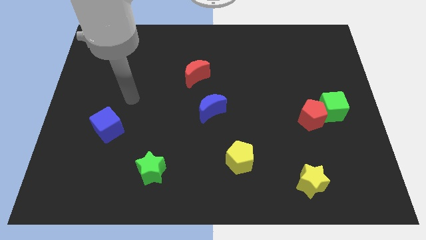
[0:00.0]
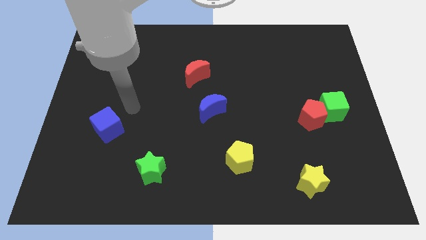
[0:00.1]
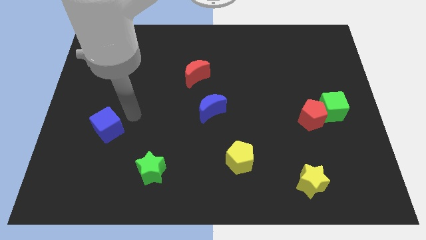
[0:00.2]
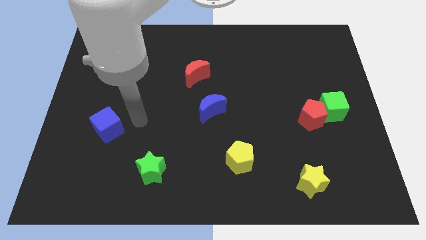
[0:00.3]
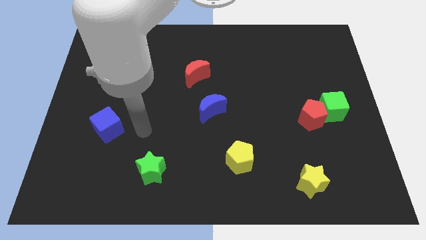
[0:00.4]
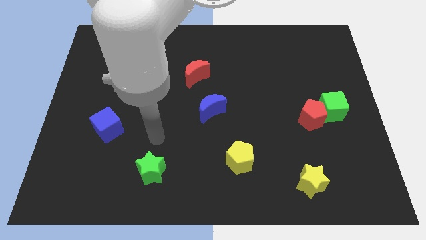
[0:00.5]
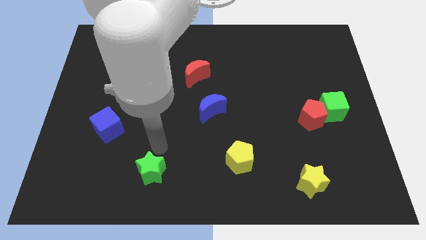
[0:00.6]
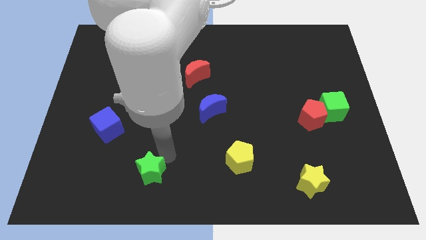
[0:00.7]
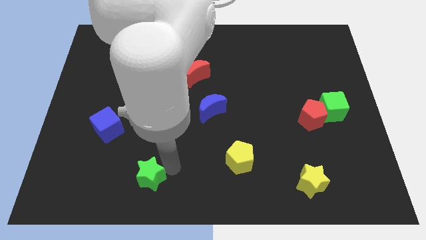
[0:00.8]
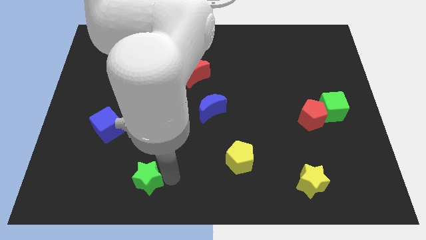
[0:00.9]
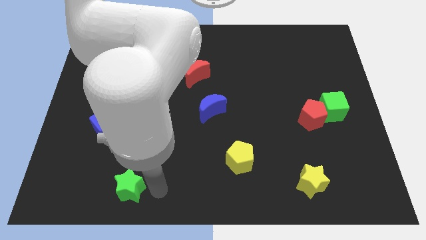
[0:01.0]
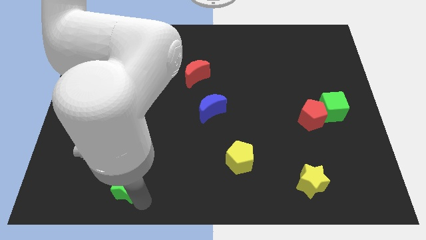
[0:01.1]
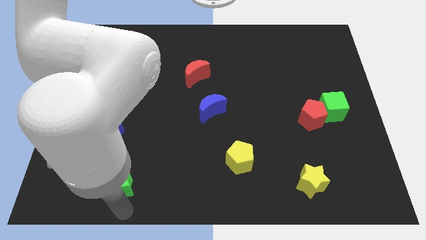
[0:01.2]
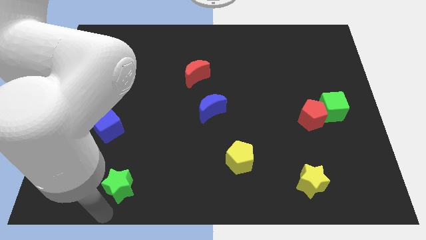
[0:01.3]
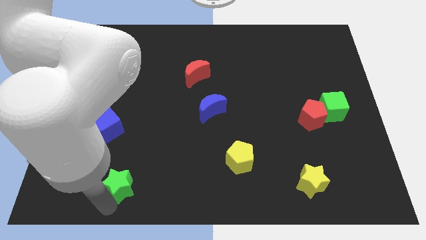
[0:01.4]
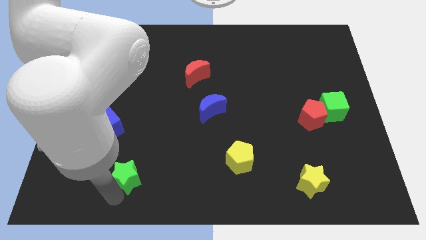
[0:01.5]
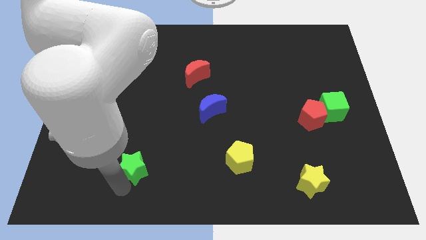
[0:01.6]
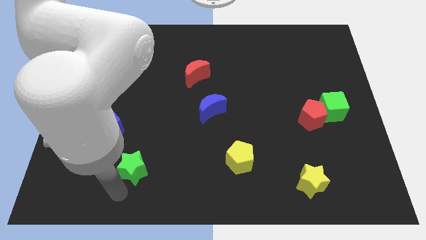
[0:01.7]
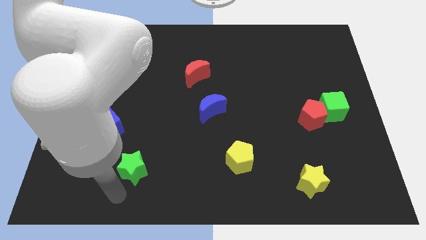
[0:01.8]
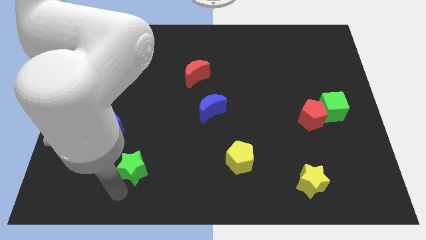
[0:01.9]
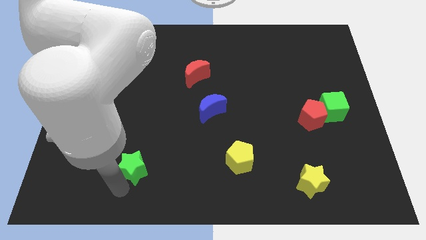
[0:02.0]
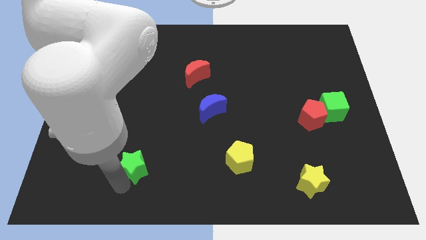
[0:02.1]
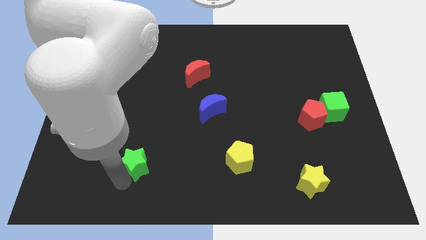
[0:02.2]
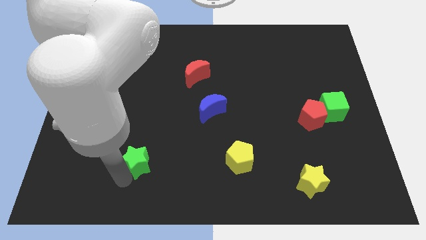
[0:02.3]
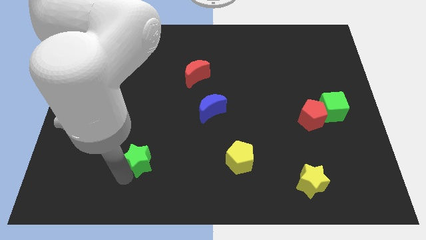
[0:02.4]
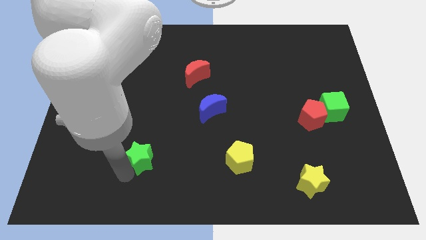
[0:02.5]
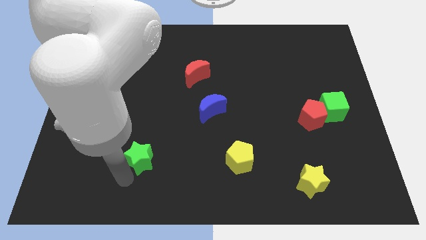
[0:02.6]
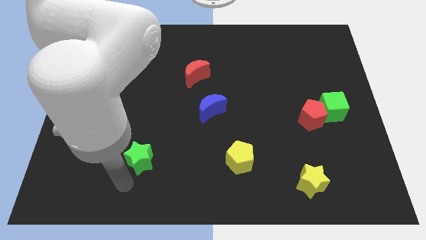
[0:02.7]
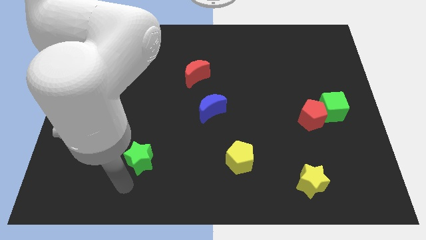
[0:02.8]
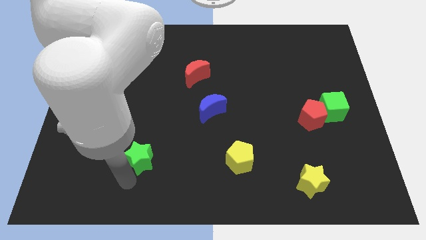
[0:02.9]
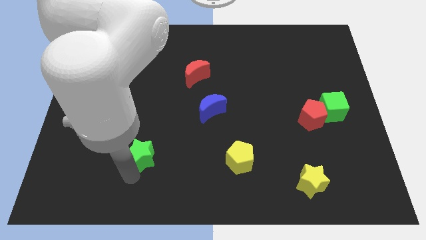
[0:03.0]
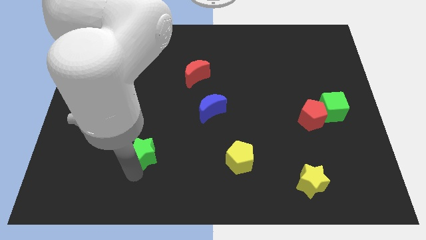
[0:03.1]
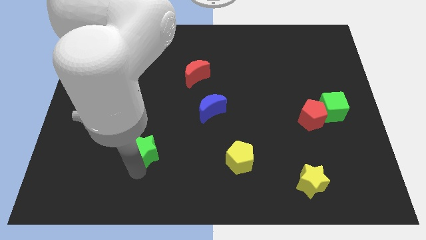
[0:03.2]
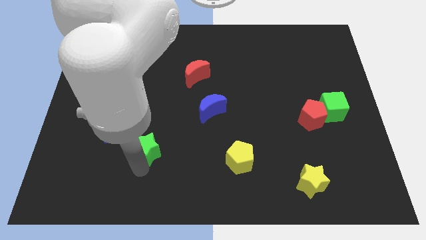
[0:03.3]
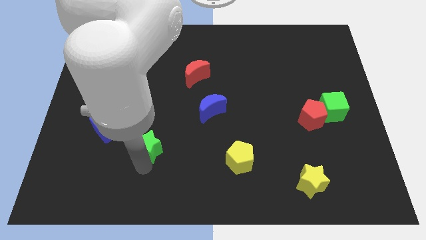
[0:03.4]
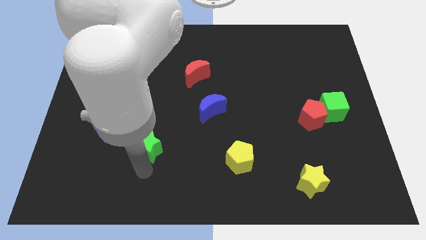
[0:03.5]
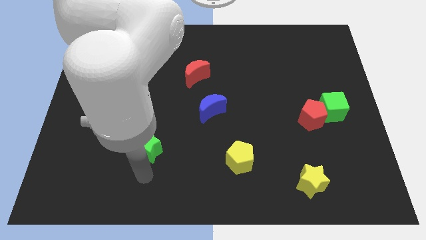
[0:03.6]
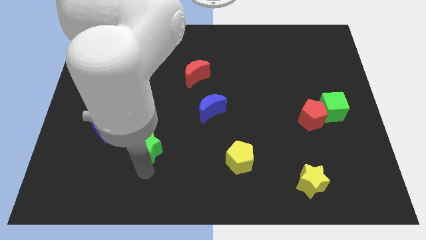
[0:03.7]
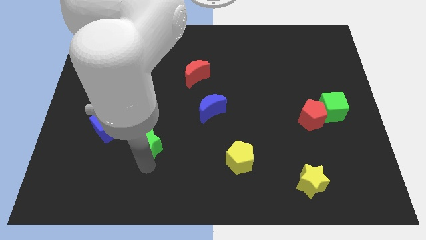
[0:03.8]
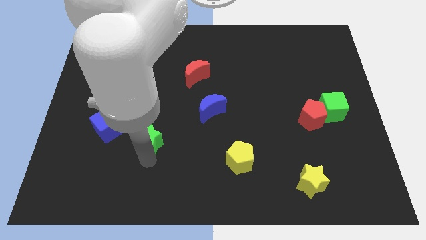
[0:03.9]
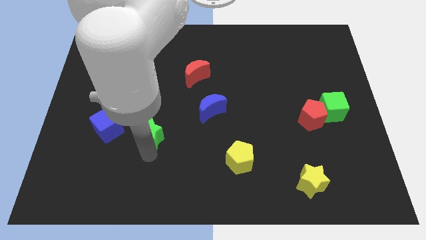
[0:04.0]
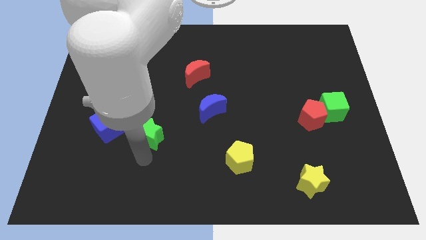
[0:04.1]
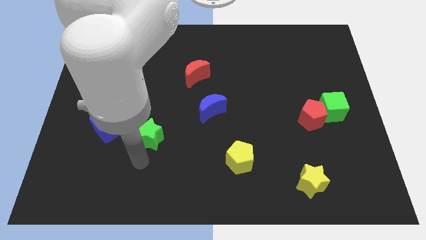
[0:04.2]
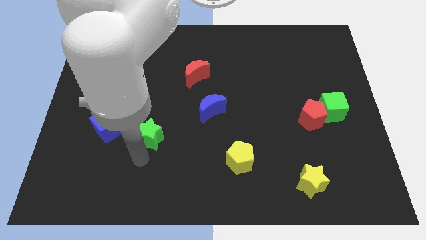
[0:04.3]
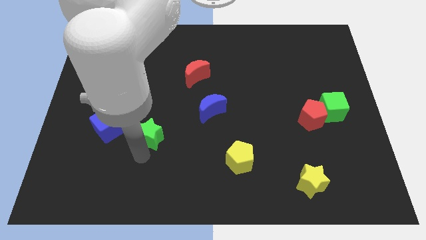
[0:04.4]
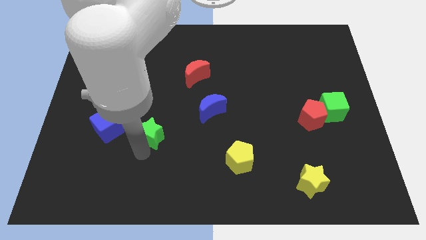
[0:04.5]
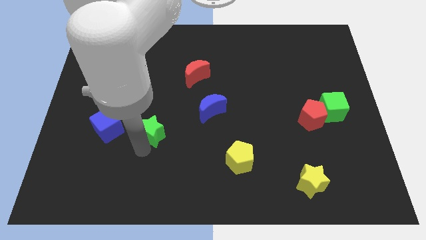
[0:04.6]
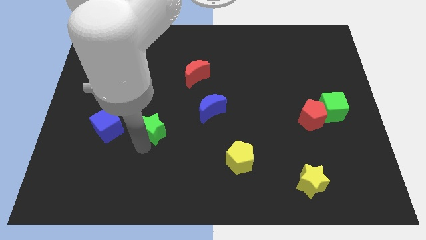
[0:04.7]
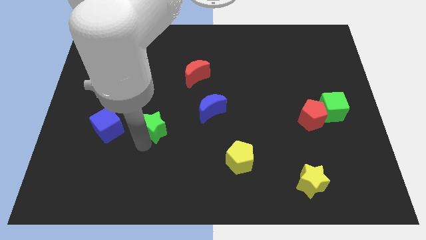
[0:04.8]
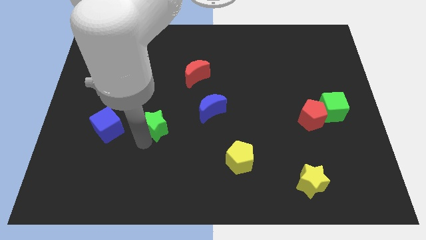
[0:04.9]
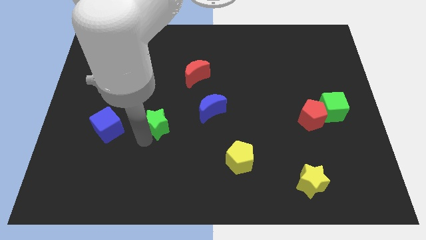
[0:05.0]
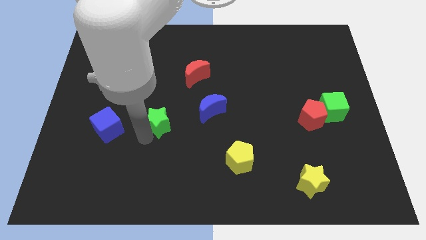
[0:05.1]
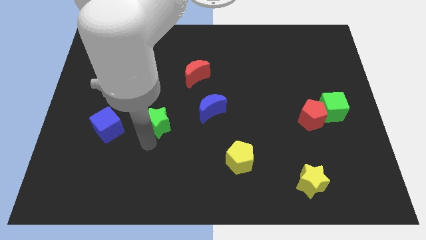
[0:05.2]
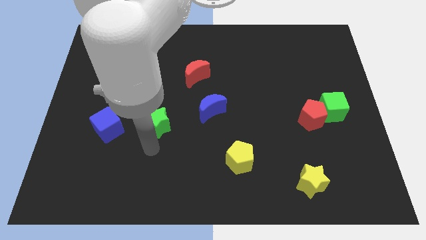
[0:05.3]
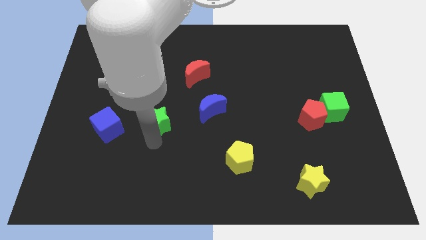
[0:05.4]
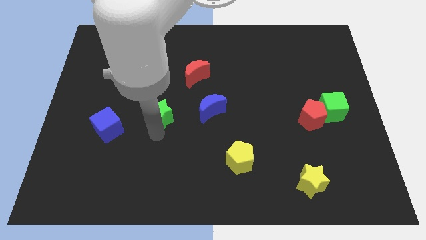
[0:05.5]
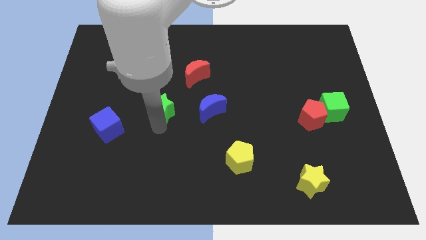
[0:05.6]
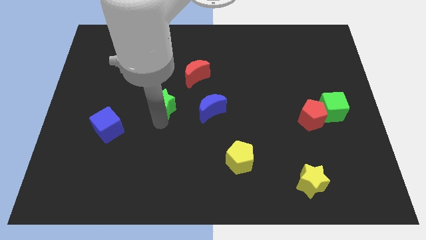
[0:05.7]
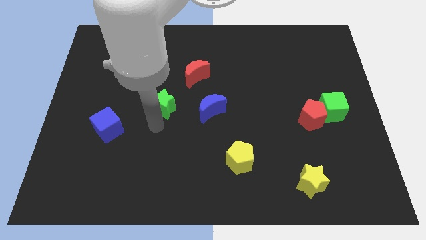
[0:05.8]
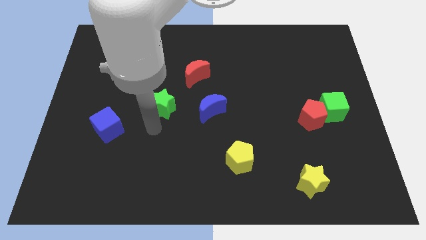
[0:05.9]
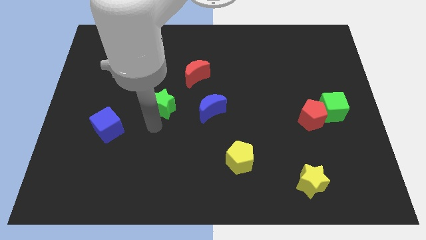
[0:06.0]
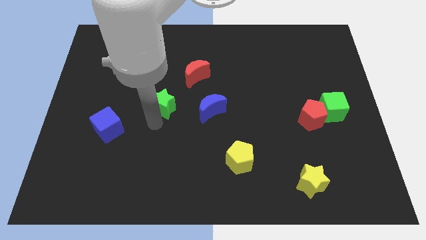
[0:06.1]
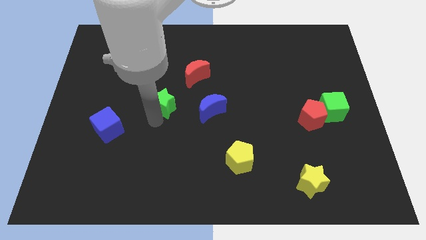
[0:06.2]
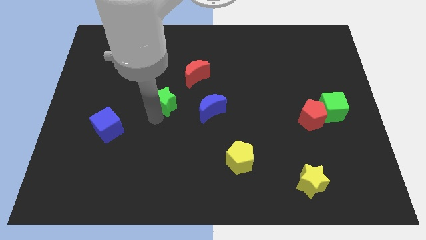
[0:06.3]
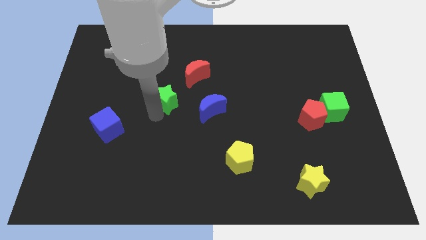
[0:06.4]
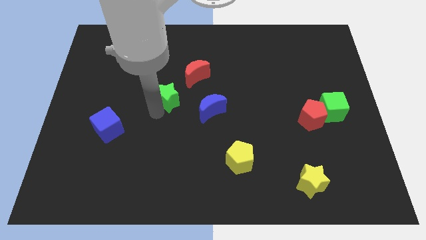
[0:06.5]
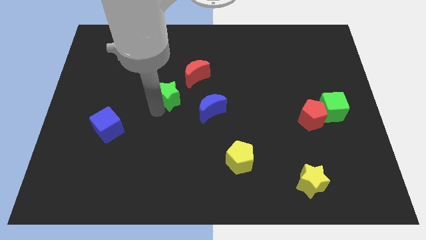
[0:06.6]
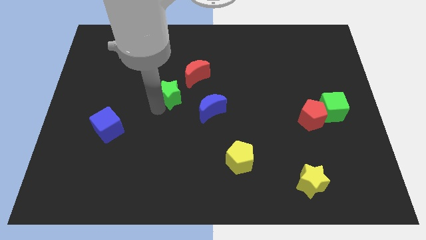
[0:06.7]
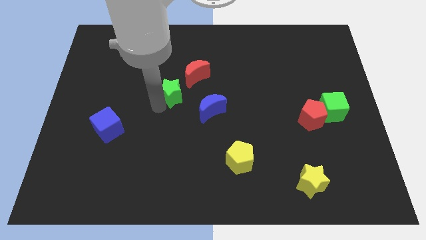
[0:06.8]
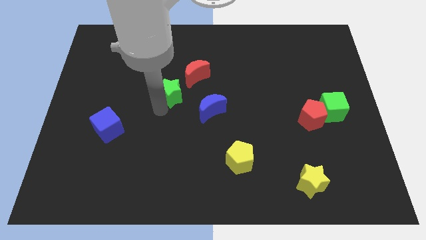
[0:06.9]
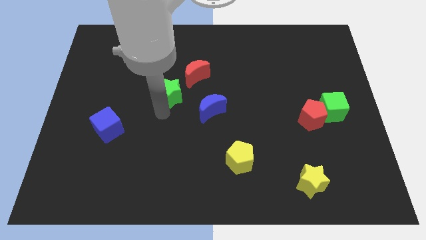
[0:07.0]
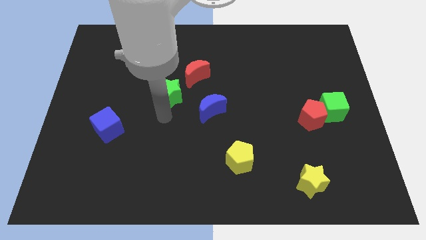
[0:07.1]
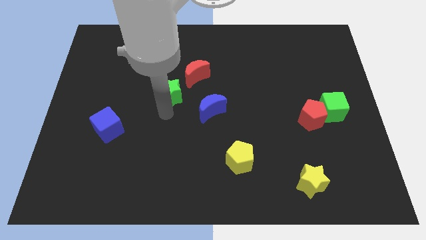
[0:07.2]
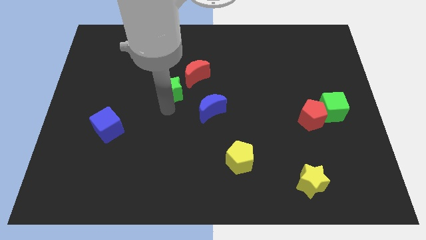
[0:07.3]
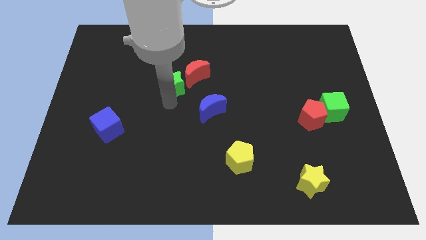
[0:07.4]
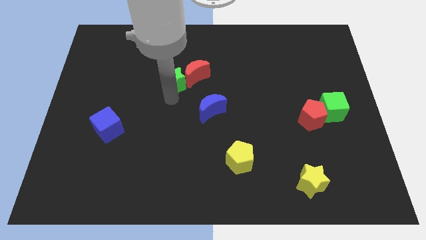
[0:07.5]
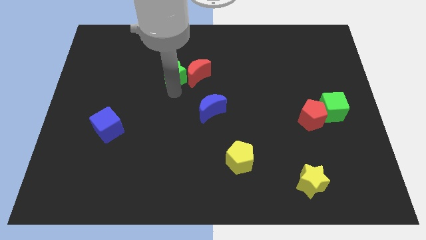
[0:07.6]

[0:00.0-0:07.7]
put the green star to the top left side of the red moon
